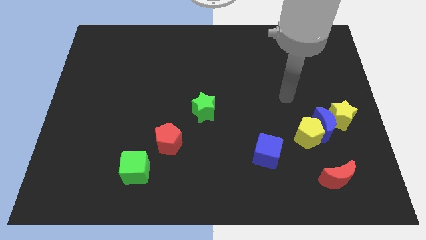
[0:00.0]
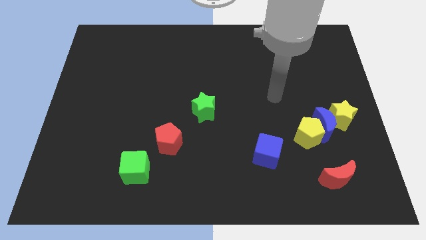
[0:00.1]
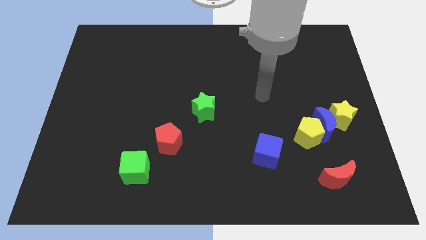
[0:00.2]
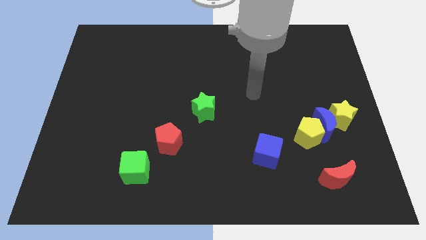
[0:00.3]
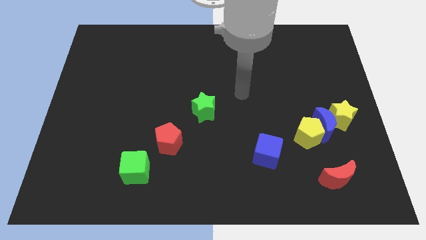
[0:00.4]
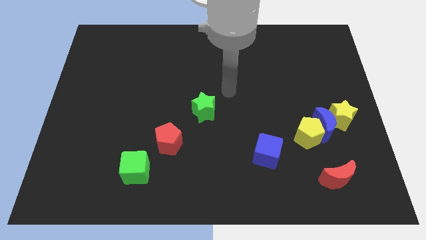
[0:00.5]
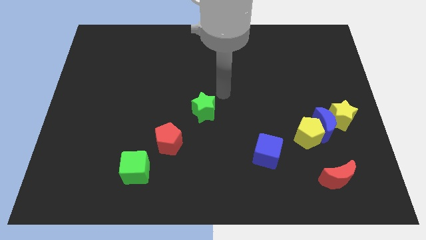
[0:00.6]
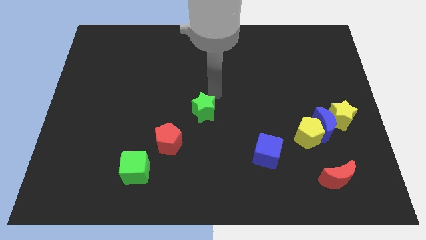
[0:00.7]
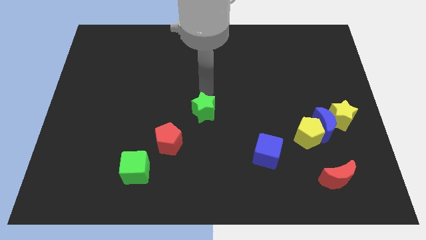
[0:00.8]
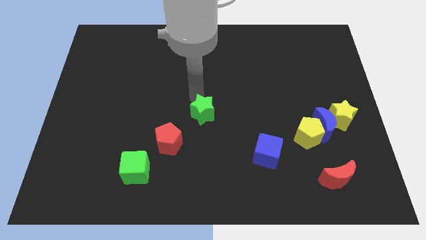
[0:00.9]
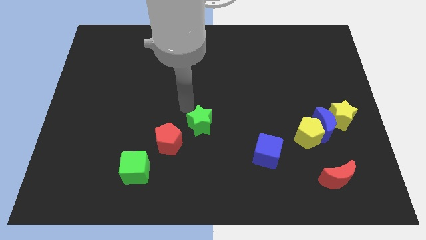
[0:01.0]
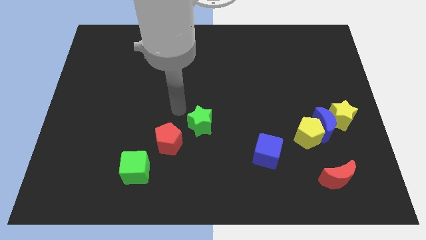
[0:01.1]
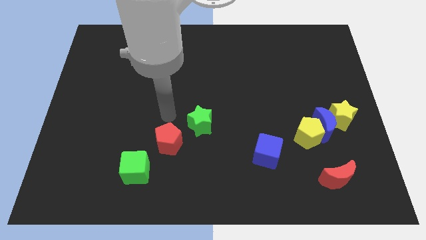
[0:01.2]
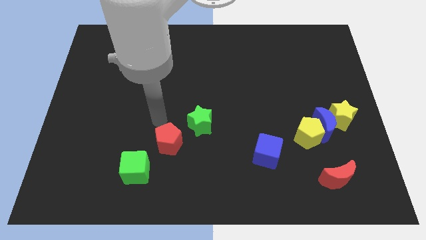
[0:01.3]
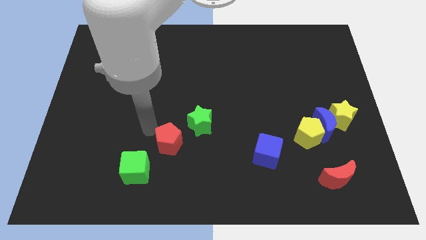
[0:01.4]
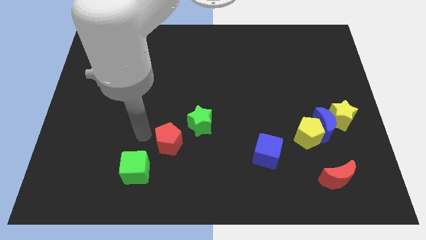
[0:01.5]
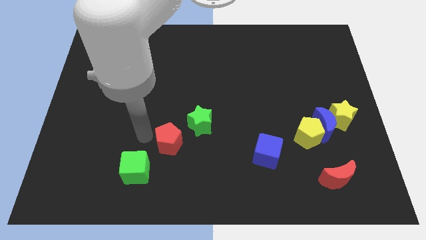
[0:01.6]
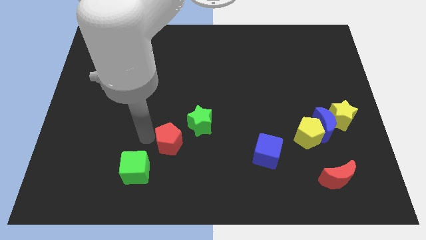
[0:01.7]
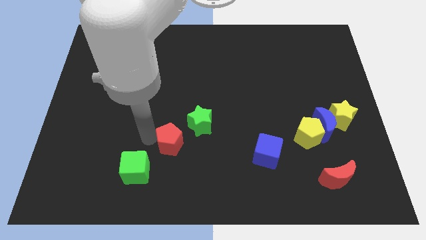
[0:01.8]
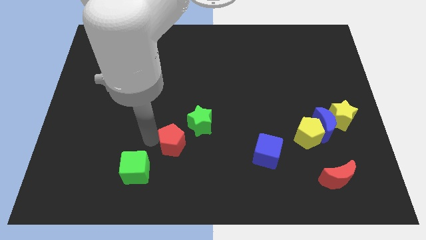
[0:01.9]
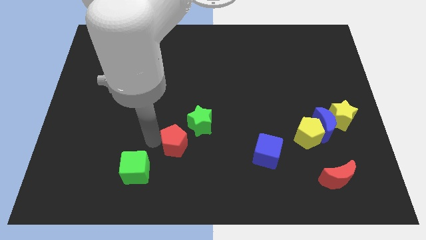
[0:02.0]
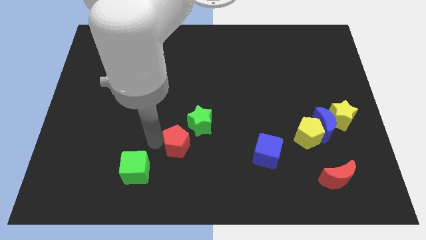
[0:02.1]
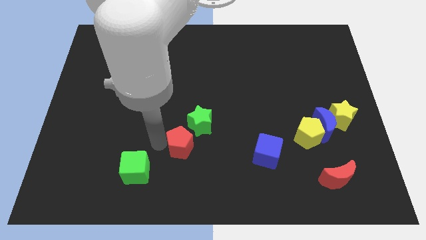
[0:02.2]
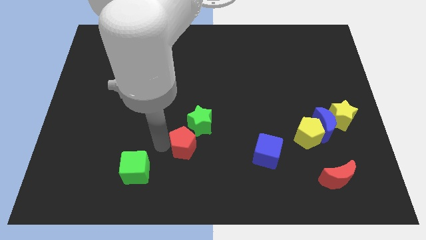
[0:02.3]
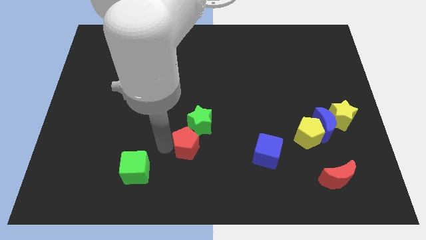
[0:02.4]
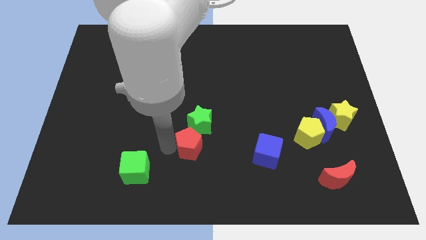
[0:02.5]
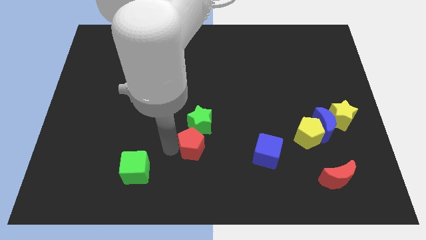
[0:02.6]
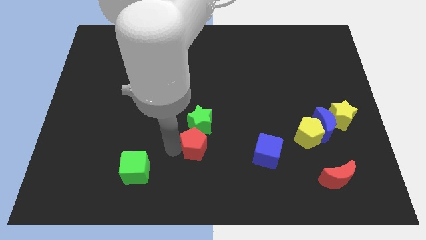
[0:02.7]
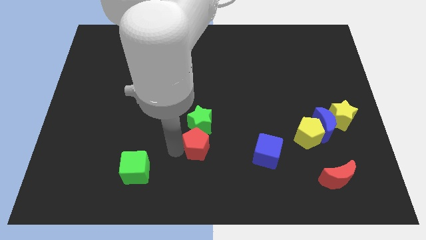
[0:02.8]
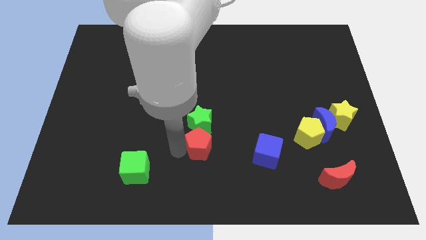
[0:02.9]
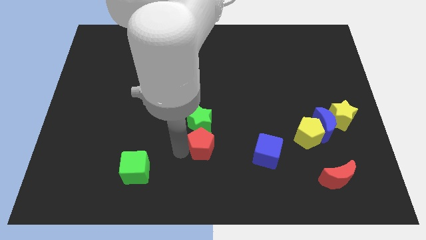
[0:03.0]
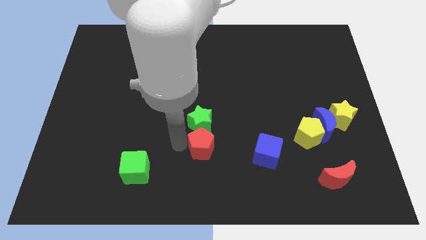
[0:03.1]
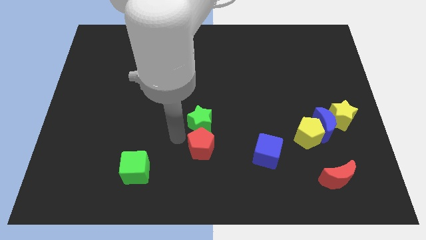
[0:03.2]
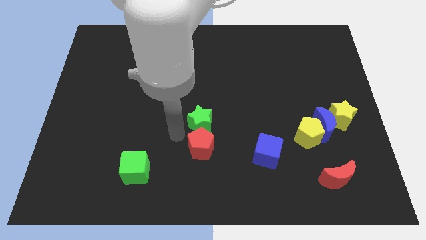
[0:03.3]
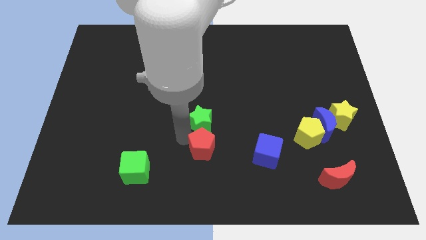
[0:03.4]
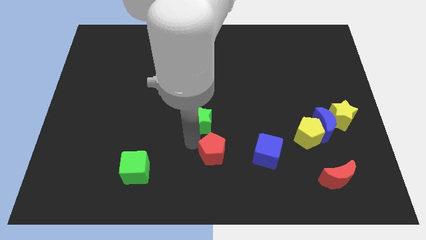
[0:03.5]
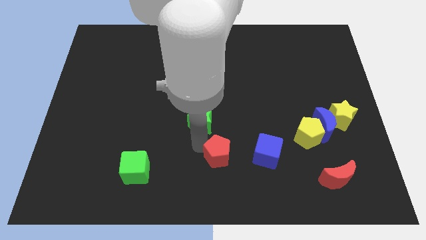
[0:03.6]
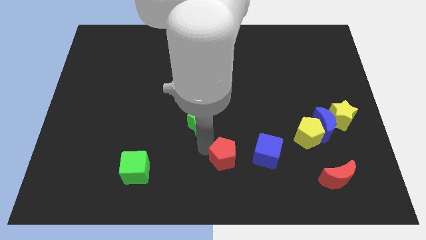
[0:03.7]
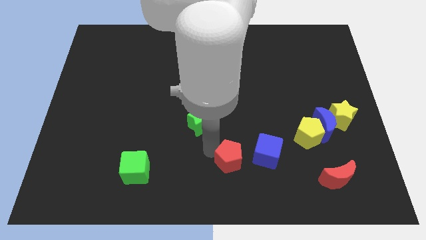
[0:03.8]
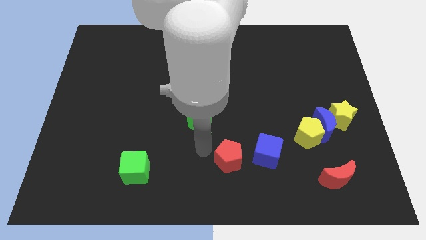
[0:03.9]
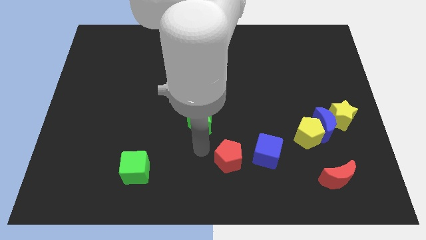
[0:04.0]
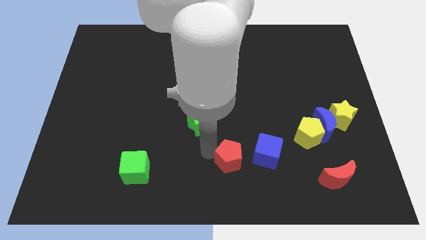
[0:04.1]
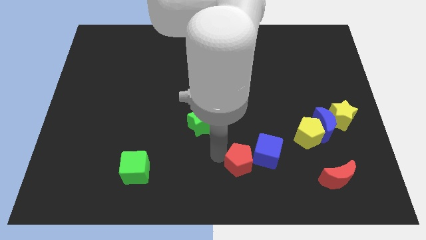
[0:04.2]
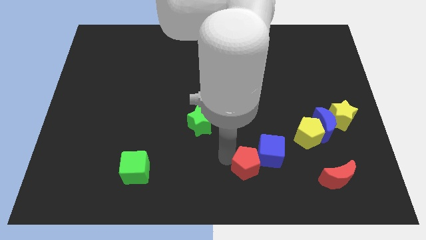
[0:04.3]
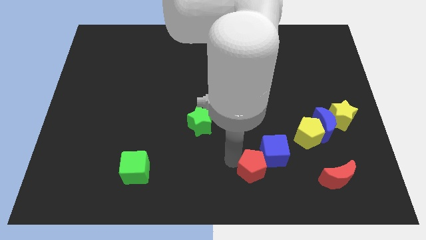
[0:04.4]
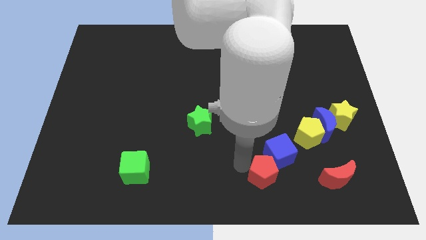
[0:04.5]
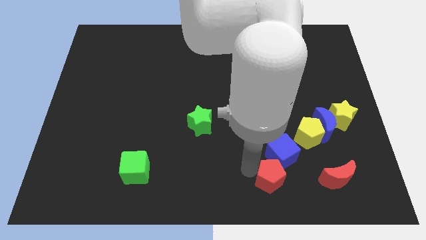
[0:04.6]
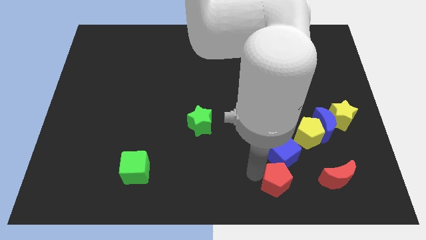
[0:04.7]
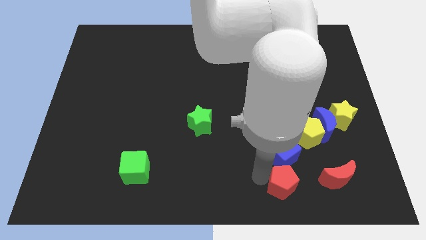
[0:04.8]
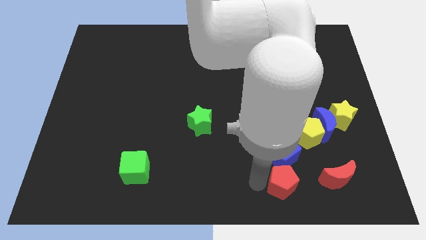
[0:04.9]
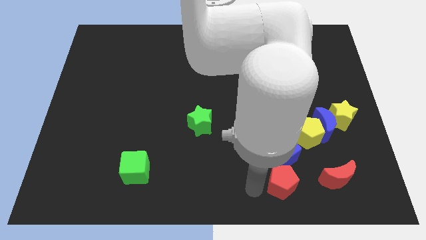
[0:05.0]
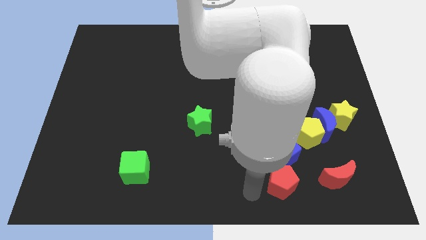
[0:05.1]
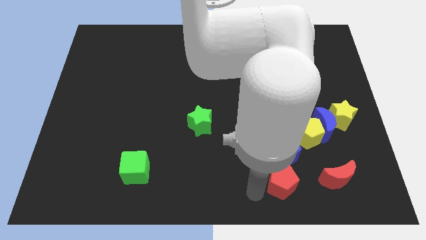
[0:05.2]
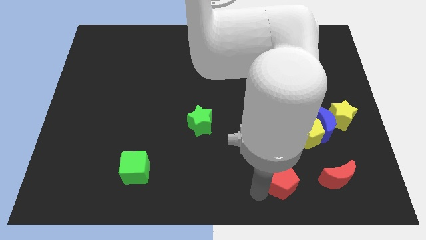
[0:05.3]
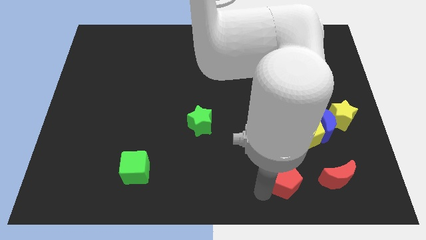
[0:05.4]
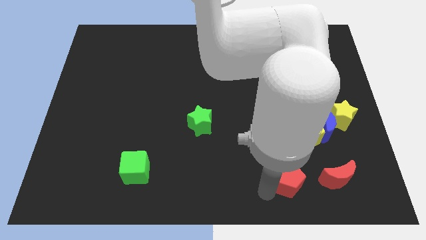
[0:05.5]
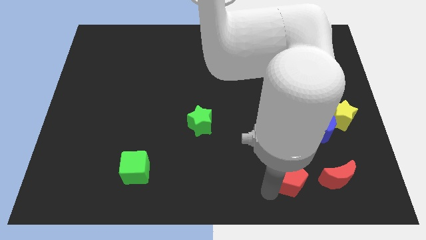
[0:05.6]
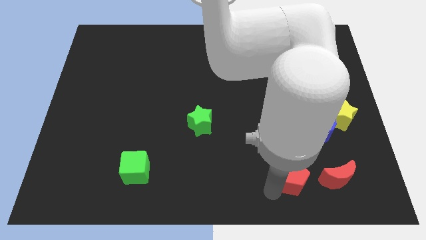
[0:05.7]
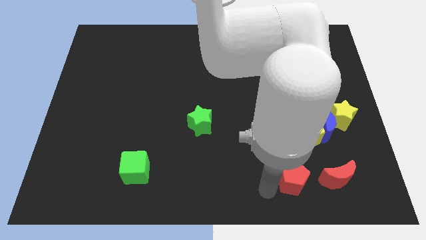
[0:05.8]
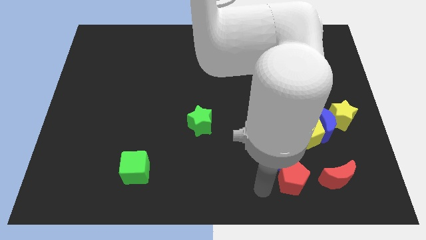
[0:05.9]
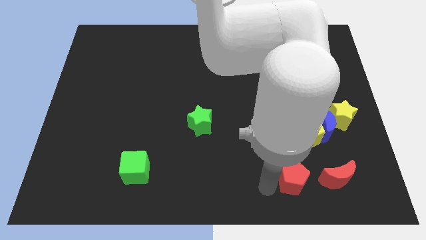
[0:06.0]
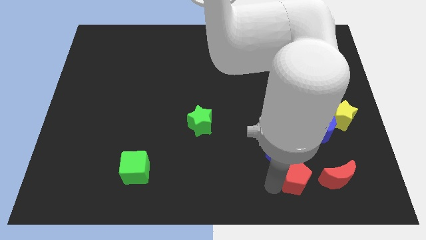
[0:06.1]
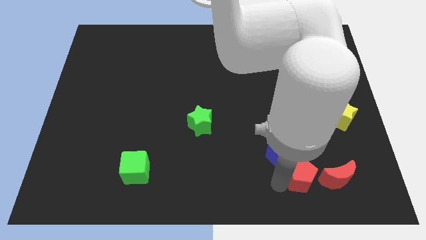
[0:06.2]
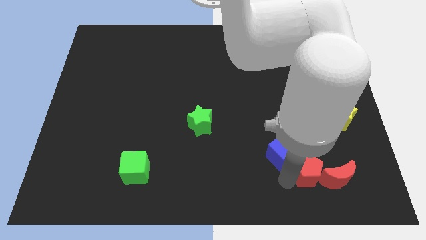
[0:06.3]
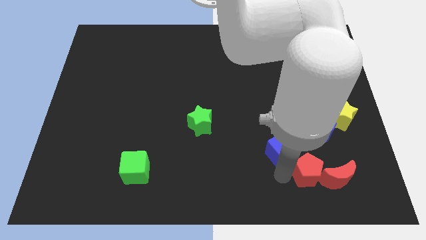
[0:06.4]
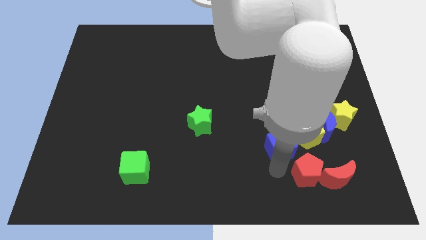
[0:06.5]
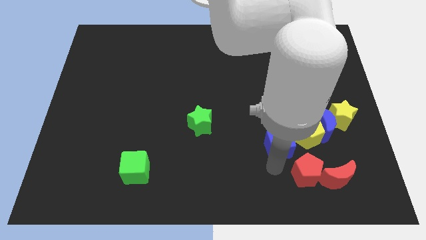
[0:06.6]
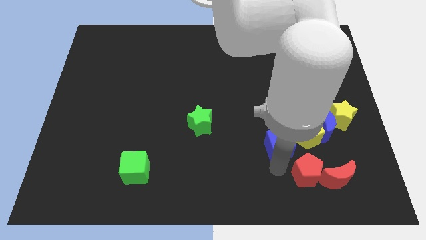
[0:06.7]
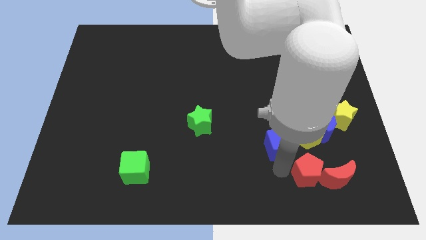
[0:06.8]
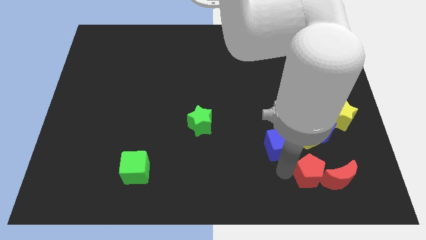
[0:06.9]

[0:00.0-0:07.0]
slide the red pentagon towards the red moon
